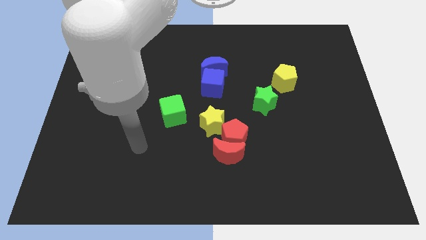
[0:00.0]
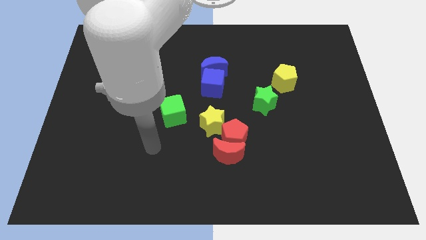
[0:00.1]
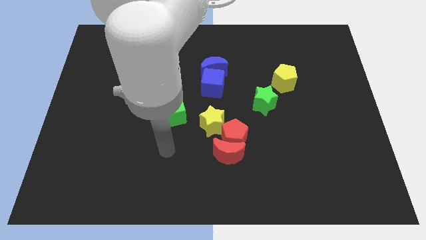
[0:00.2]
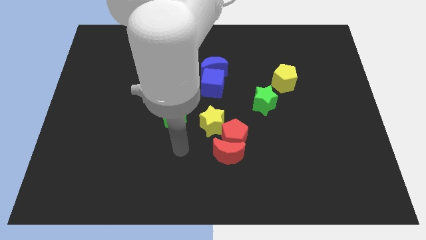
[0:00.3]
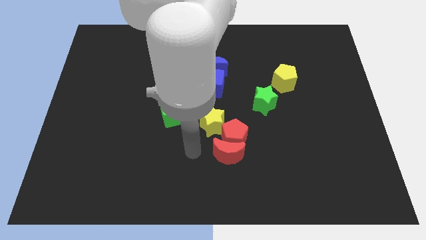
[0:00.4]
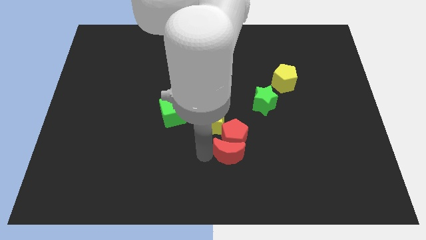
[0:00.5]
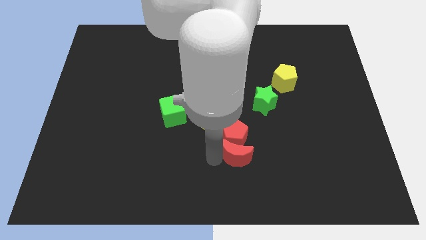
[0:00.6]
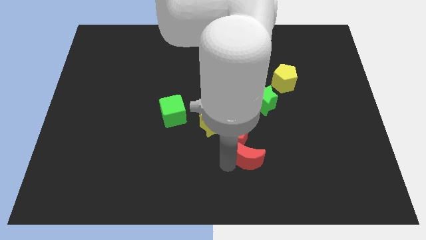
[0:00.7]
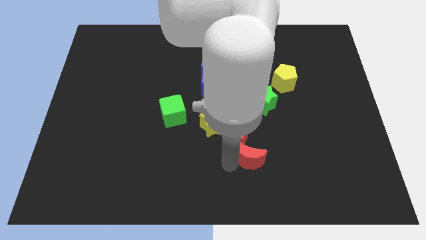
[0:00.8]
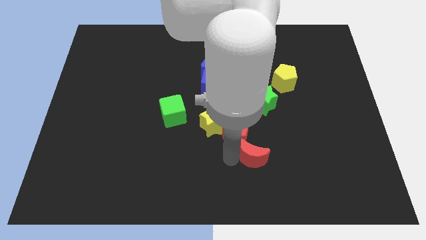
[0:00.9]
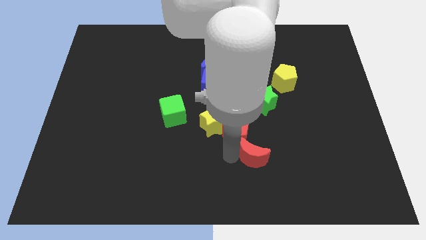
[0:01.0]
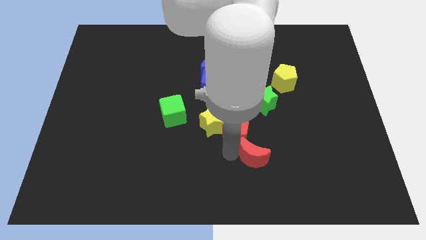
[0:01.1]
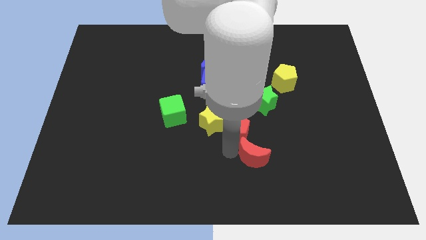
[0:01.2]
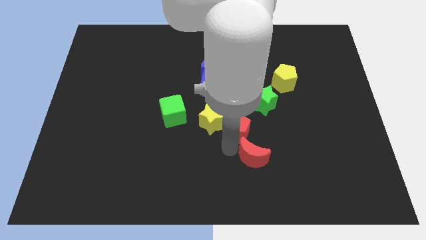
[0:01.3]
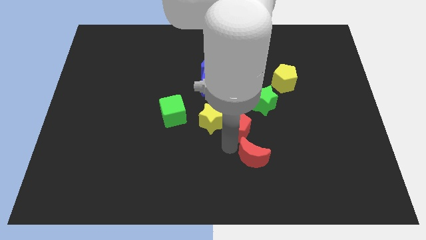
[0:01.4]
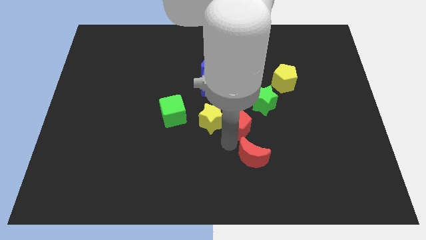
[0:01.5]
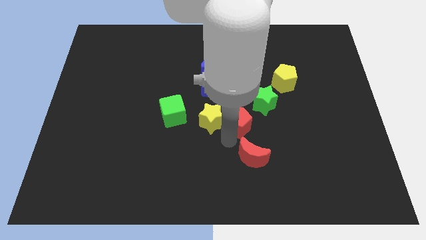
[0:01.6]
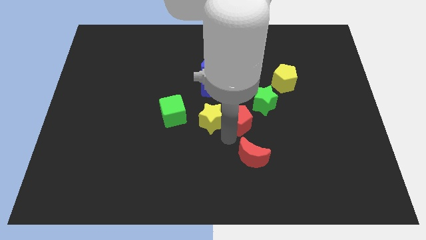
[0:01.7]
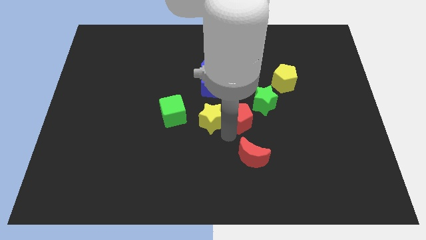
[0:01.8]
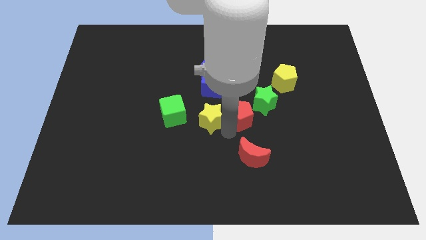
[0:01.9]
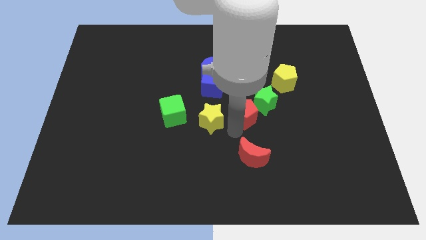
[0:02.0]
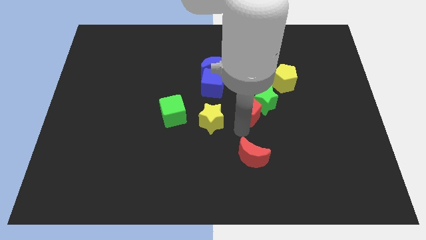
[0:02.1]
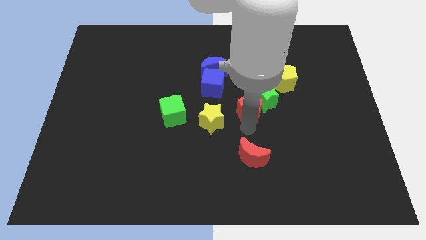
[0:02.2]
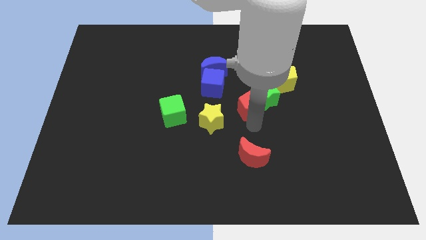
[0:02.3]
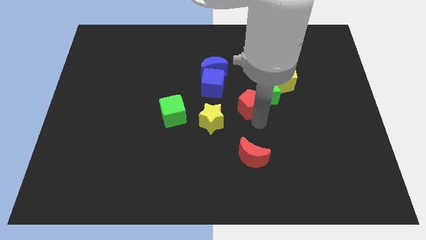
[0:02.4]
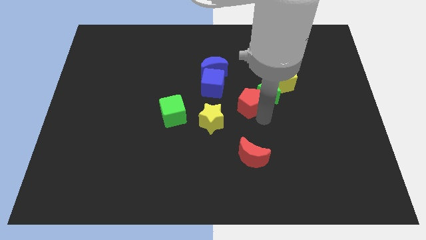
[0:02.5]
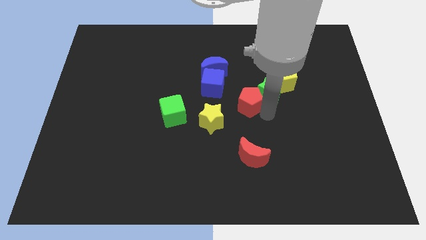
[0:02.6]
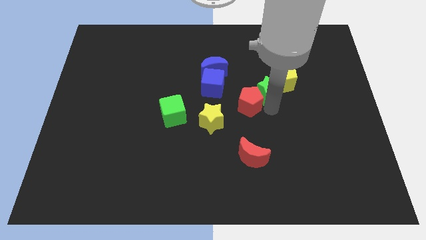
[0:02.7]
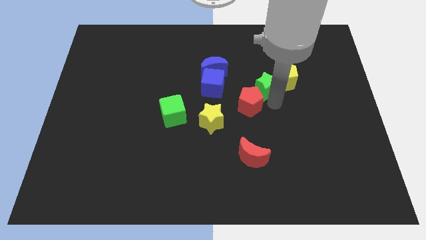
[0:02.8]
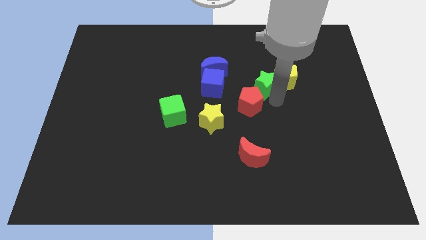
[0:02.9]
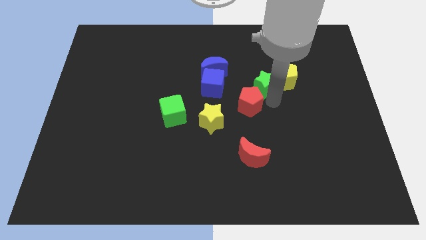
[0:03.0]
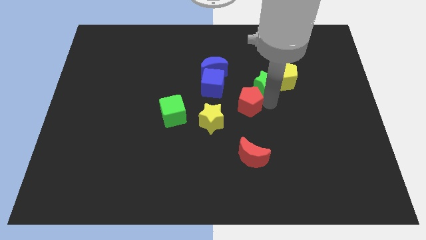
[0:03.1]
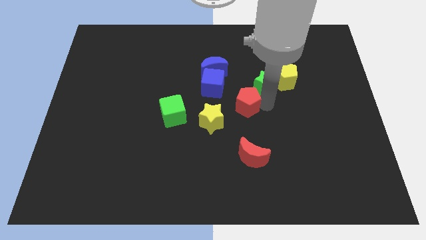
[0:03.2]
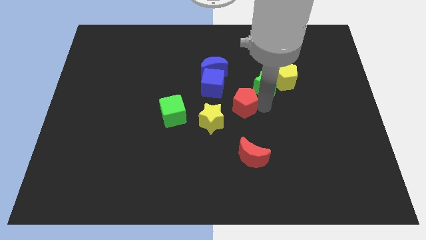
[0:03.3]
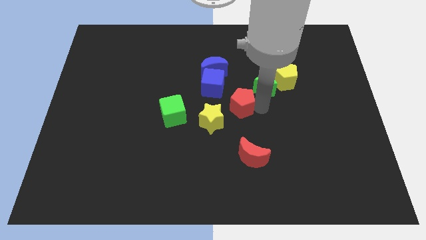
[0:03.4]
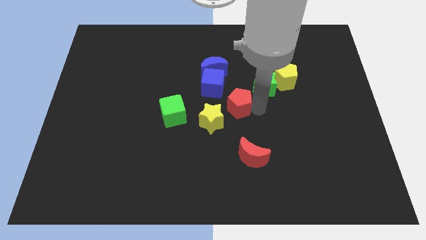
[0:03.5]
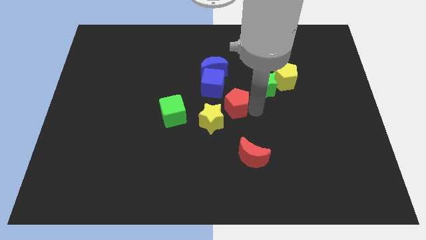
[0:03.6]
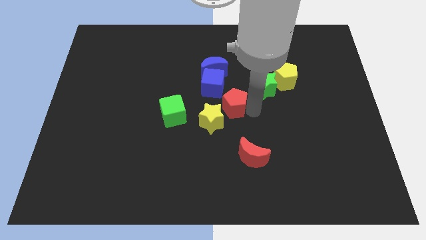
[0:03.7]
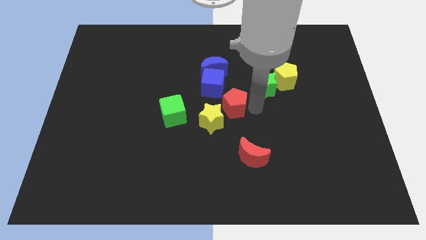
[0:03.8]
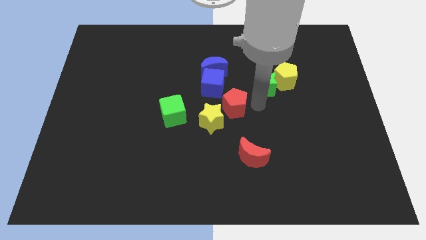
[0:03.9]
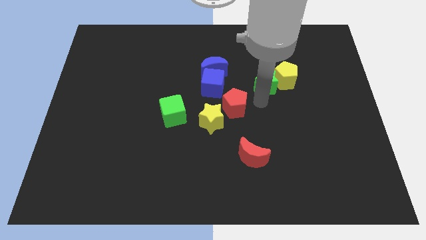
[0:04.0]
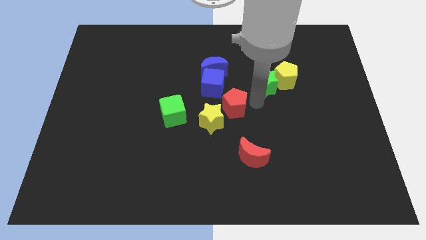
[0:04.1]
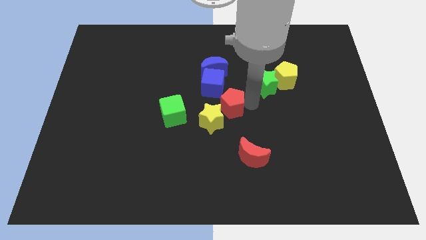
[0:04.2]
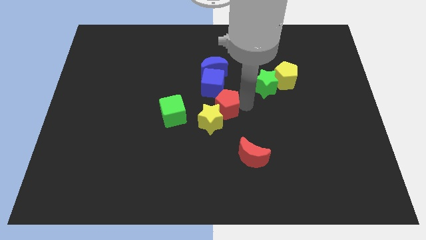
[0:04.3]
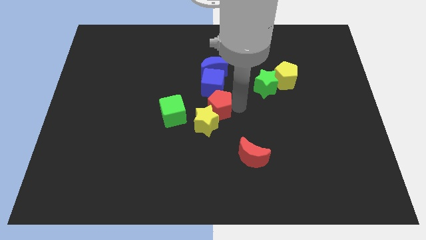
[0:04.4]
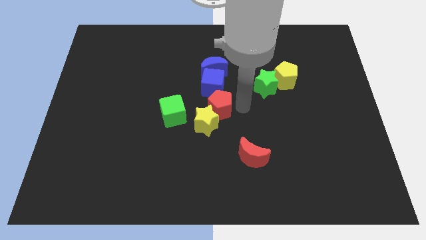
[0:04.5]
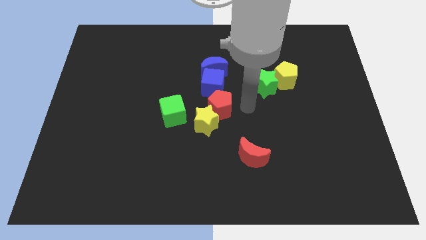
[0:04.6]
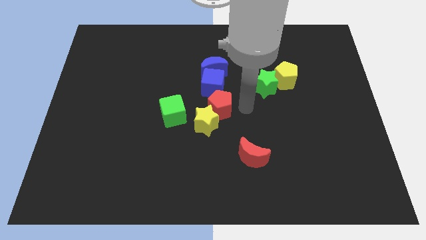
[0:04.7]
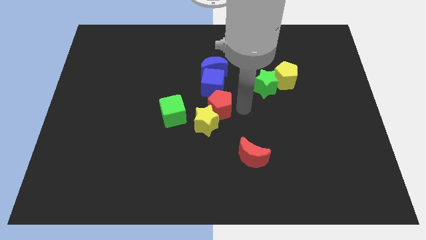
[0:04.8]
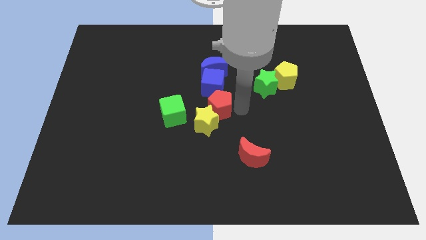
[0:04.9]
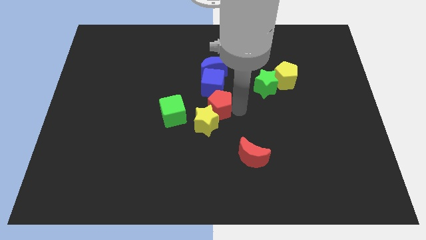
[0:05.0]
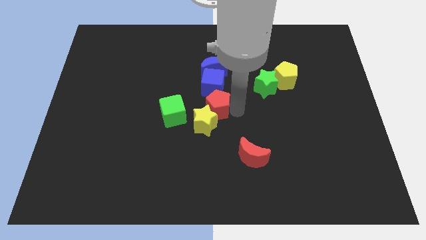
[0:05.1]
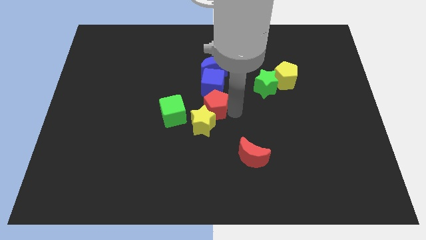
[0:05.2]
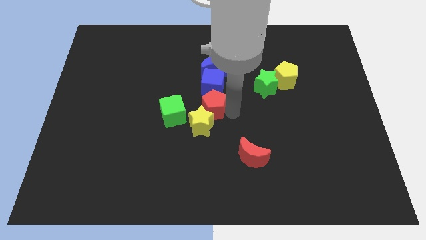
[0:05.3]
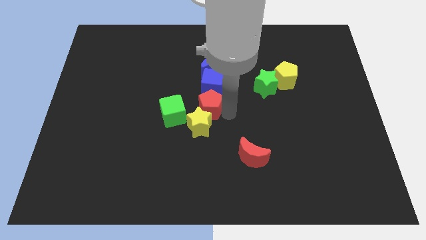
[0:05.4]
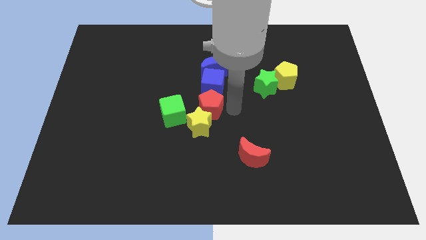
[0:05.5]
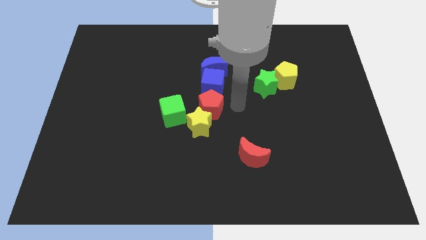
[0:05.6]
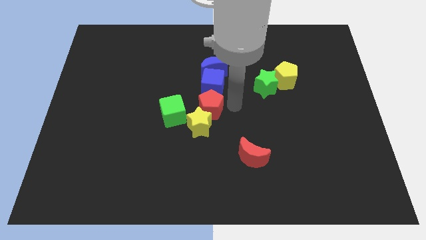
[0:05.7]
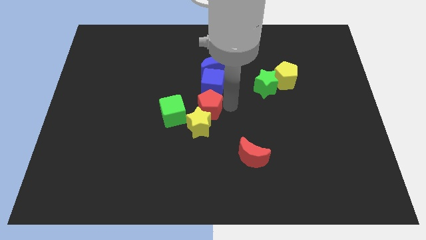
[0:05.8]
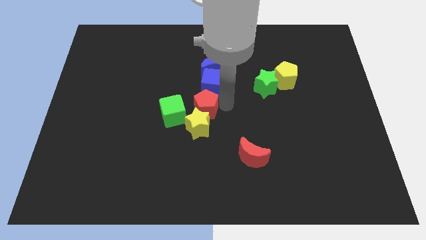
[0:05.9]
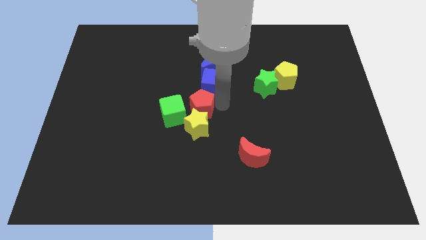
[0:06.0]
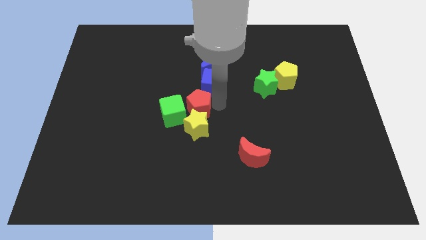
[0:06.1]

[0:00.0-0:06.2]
move the red pentagon towards the green cube

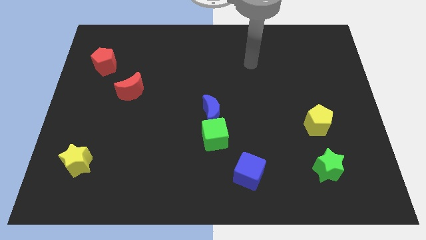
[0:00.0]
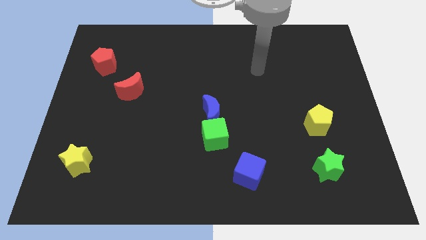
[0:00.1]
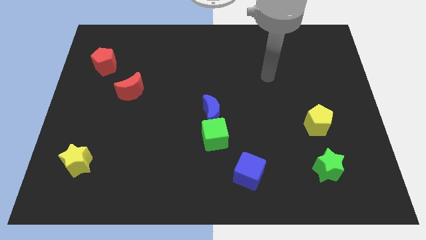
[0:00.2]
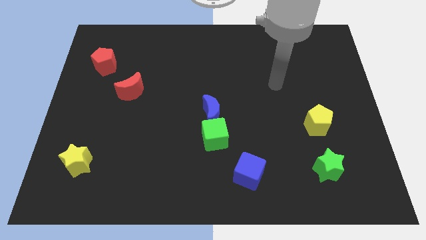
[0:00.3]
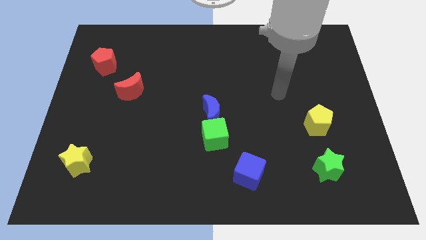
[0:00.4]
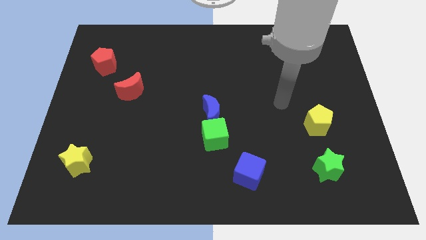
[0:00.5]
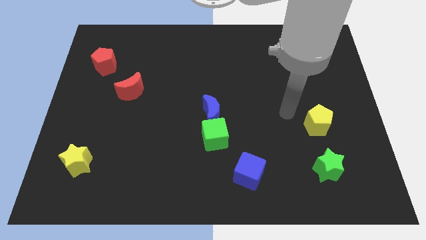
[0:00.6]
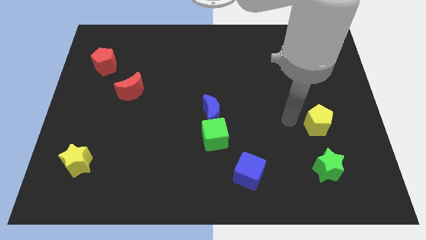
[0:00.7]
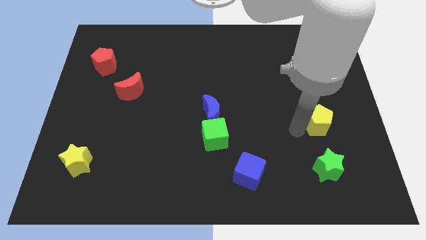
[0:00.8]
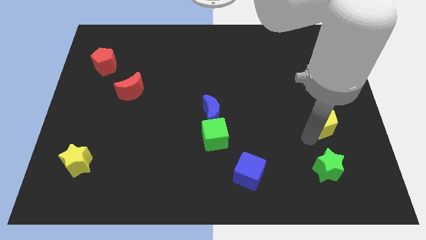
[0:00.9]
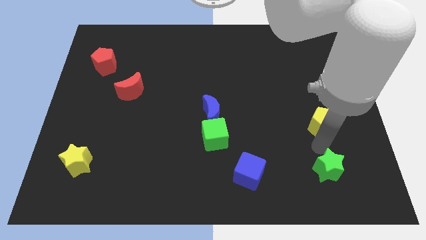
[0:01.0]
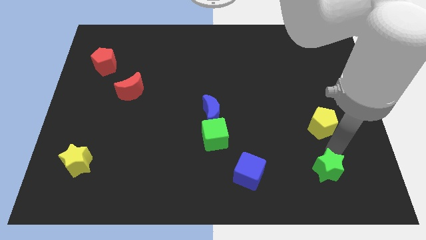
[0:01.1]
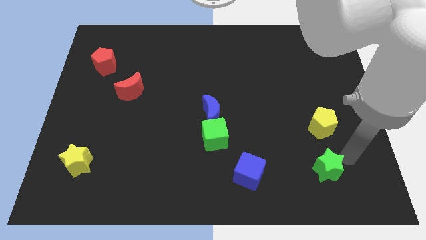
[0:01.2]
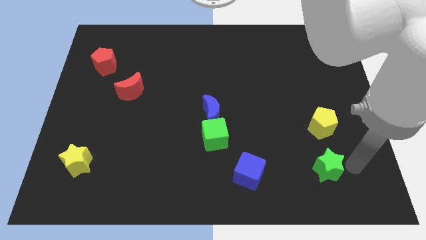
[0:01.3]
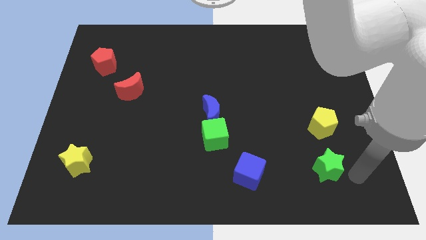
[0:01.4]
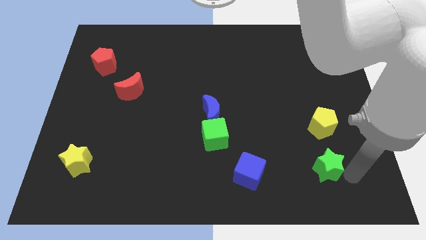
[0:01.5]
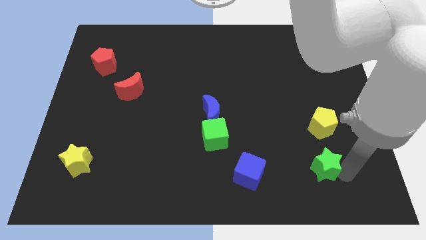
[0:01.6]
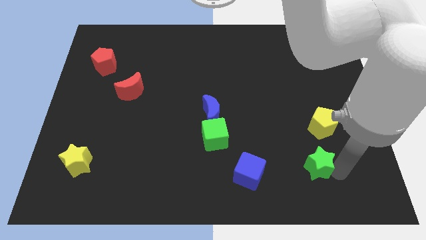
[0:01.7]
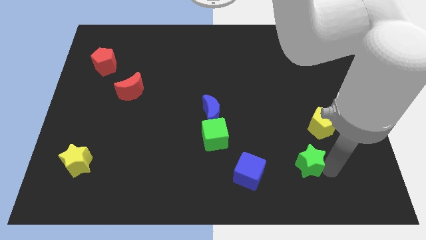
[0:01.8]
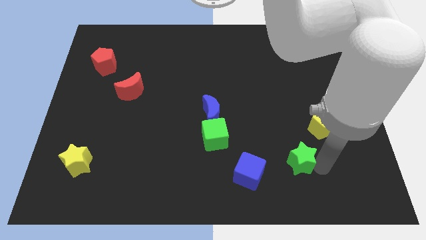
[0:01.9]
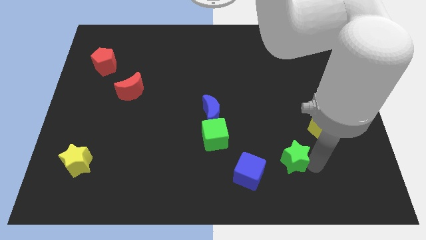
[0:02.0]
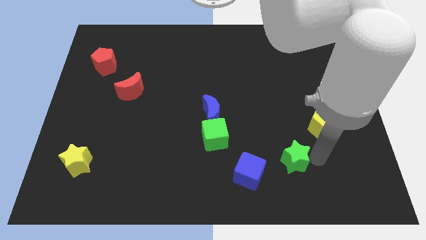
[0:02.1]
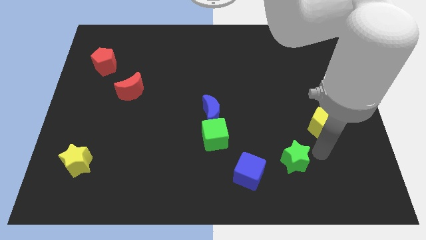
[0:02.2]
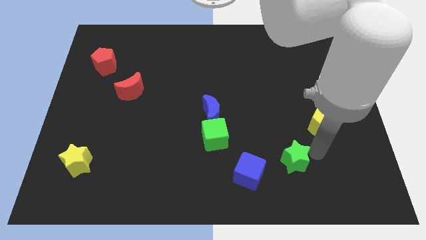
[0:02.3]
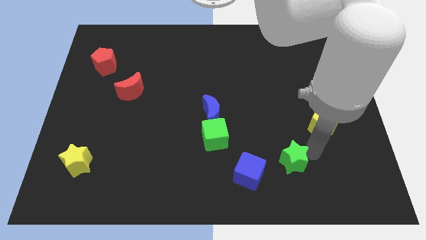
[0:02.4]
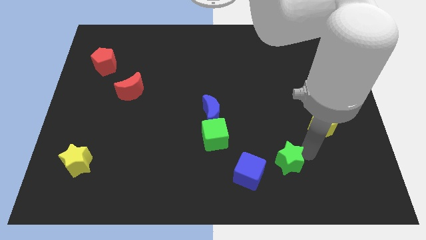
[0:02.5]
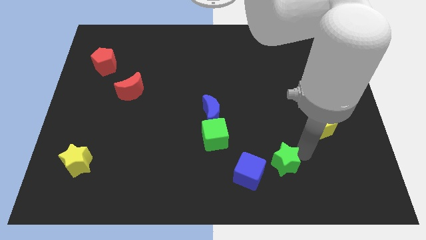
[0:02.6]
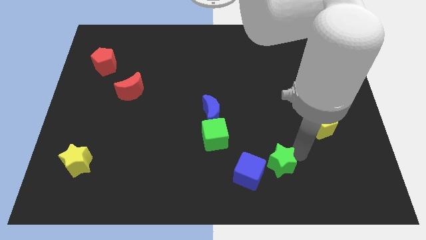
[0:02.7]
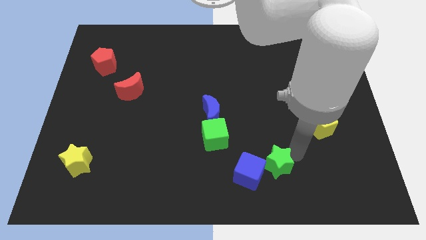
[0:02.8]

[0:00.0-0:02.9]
slide the green star towards the blue cube
